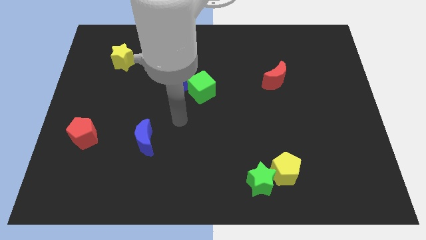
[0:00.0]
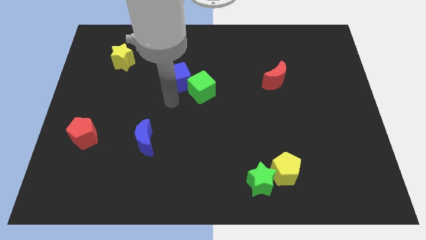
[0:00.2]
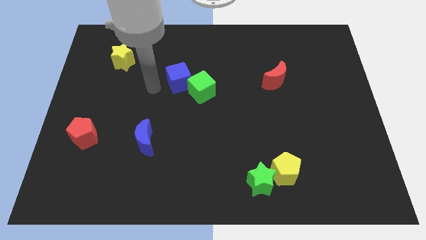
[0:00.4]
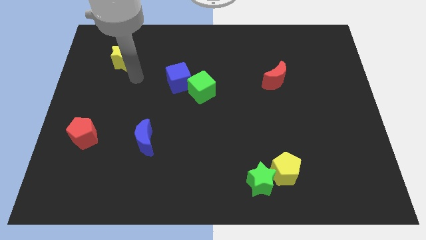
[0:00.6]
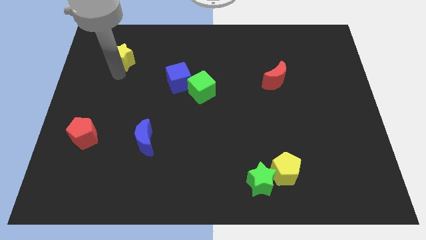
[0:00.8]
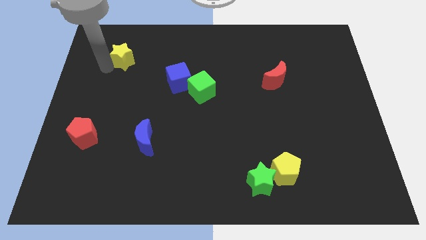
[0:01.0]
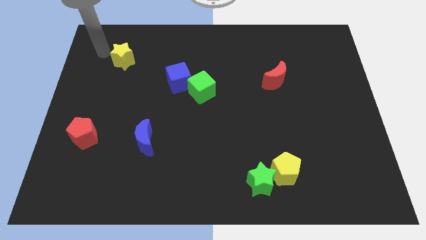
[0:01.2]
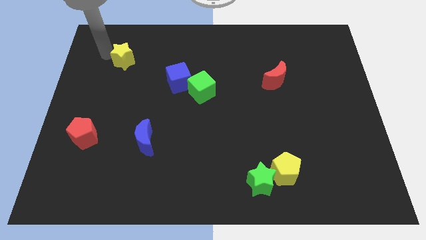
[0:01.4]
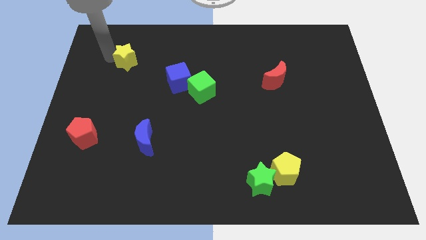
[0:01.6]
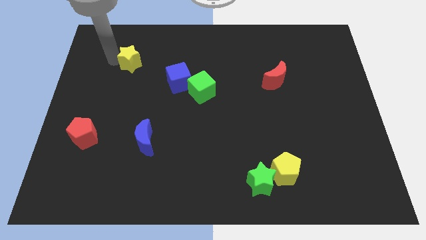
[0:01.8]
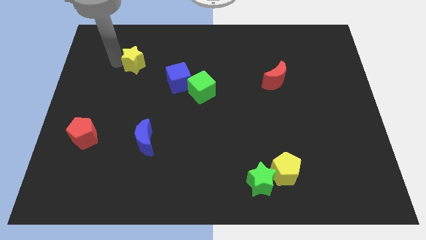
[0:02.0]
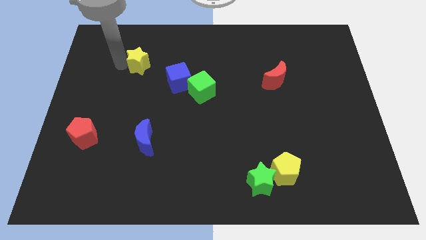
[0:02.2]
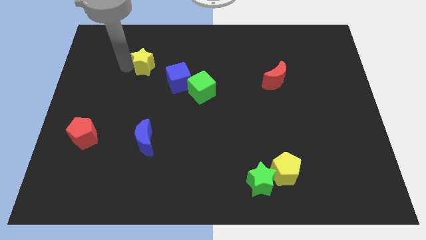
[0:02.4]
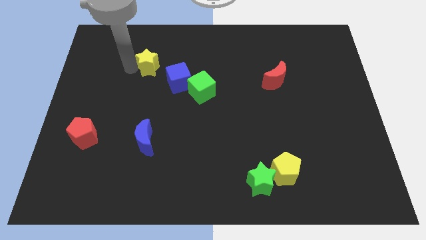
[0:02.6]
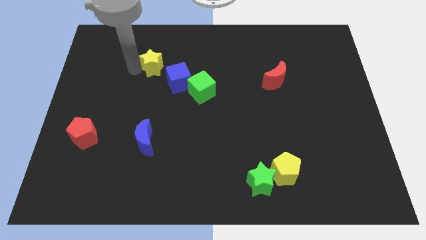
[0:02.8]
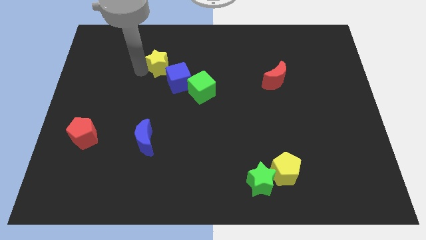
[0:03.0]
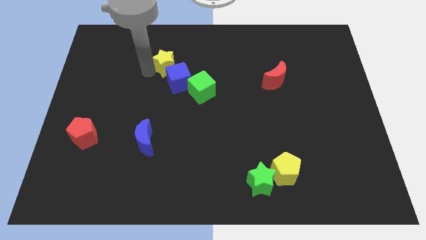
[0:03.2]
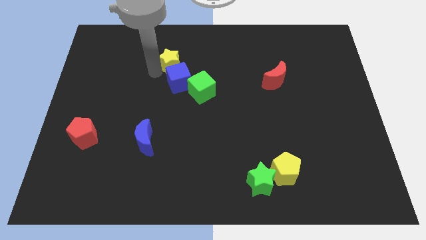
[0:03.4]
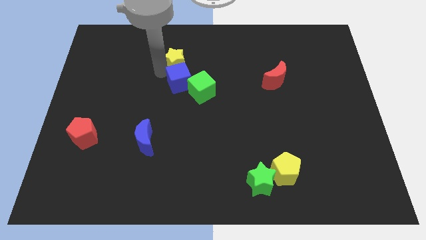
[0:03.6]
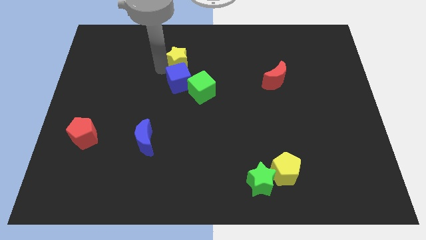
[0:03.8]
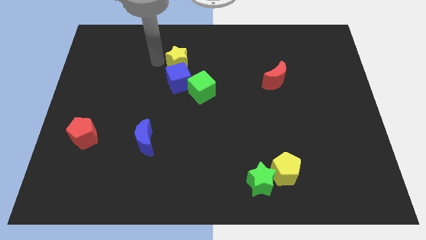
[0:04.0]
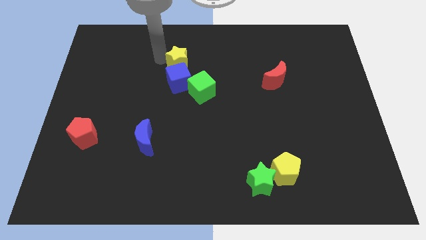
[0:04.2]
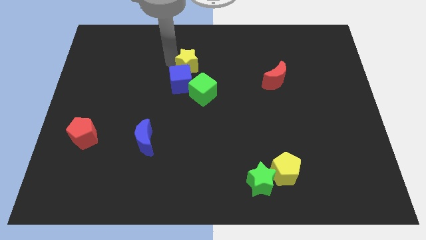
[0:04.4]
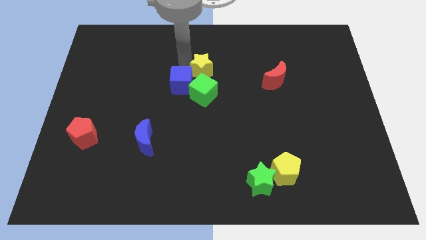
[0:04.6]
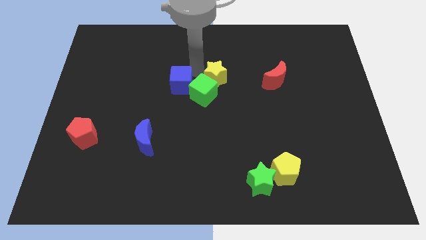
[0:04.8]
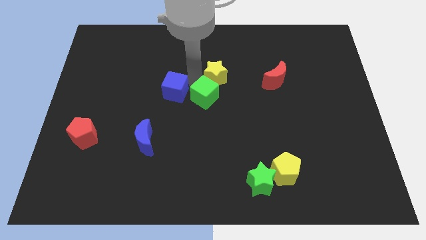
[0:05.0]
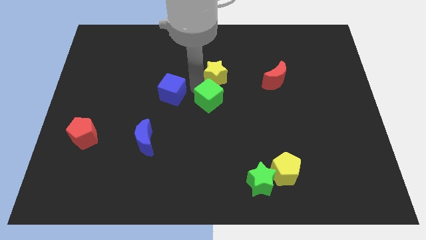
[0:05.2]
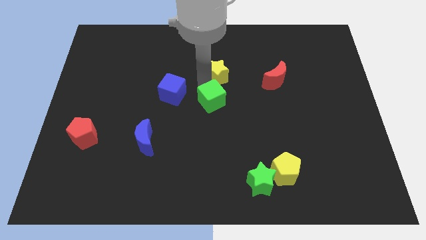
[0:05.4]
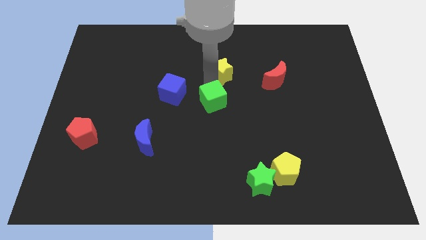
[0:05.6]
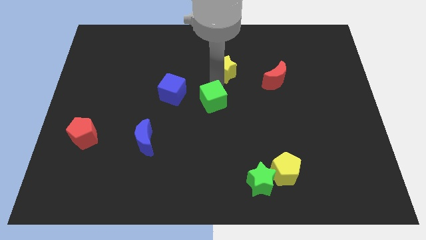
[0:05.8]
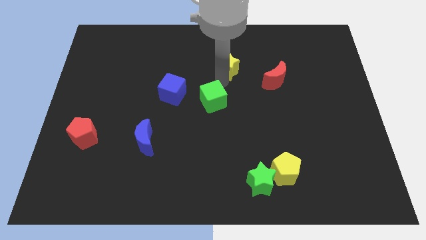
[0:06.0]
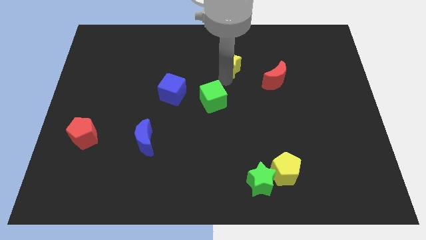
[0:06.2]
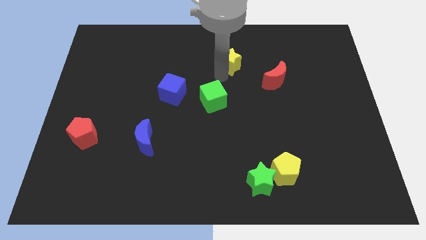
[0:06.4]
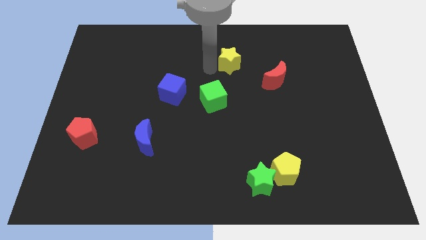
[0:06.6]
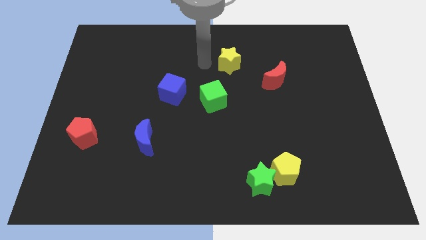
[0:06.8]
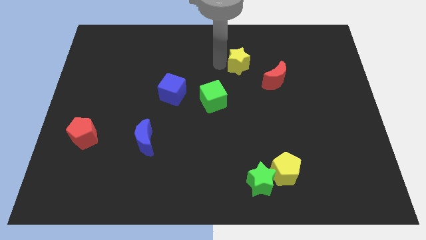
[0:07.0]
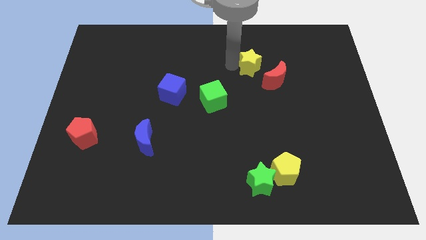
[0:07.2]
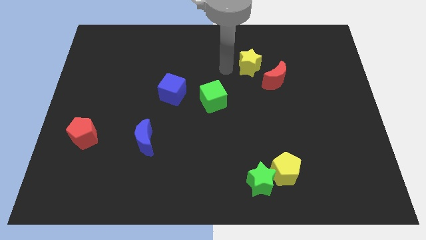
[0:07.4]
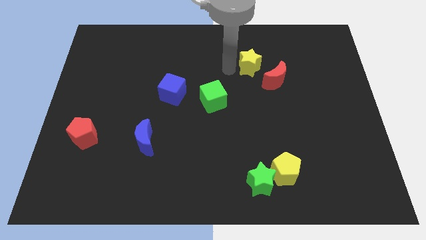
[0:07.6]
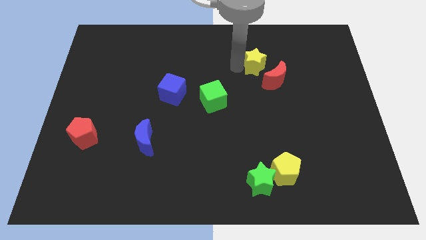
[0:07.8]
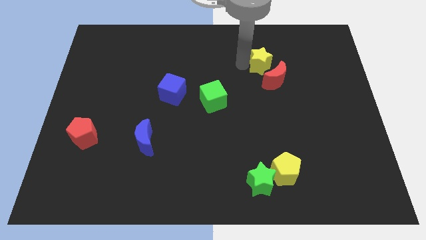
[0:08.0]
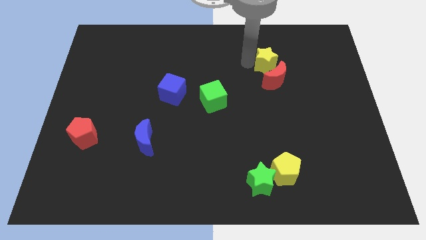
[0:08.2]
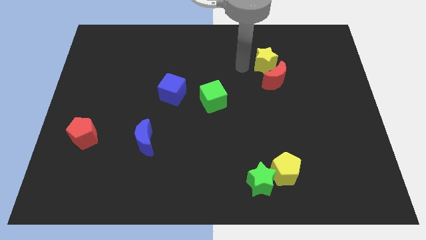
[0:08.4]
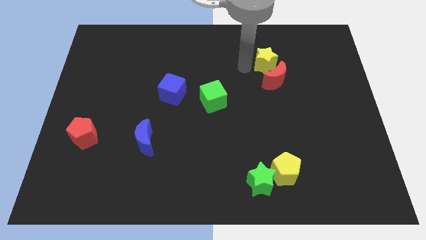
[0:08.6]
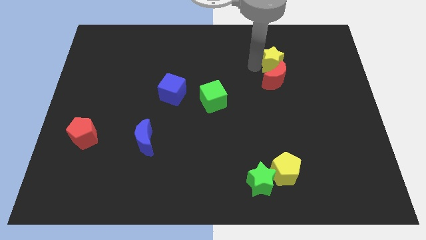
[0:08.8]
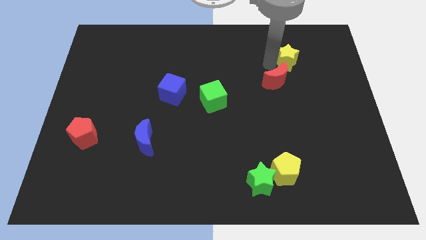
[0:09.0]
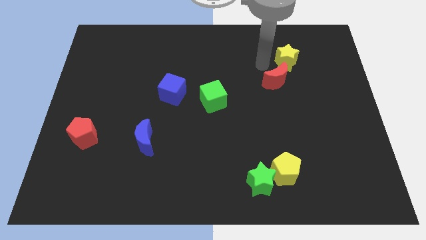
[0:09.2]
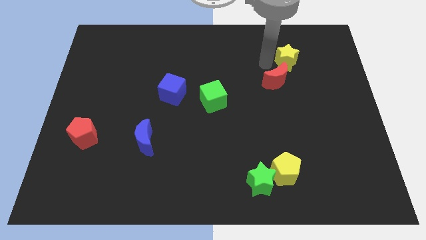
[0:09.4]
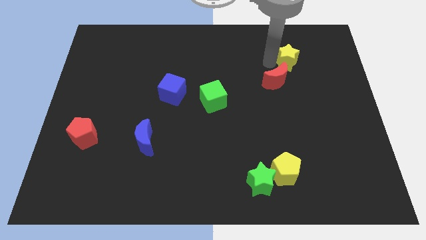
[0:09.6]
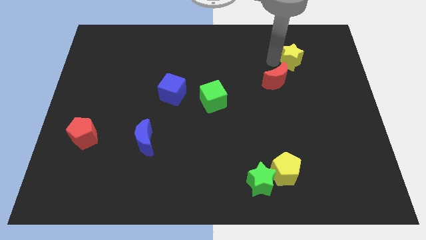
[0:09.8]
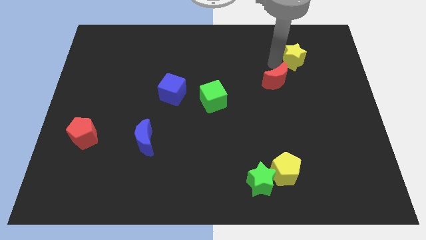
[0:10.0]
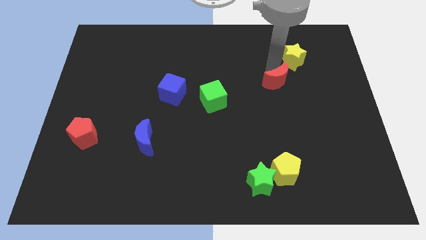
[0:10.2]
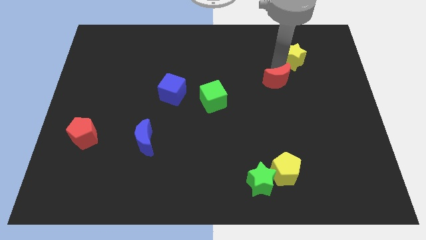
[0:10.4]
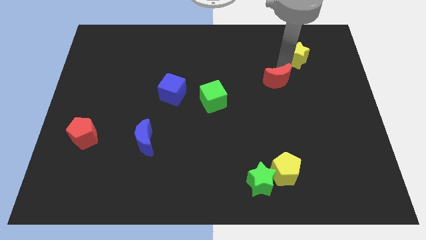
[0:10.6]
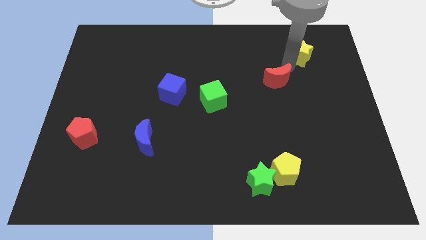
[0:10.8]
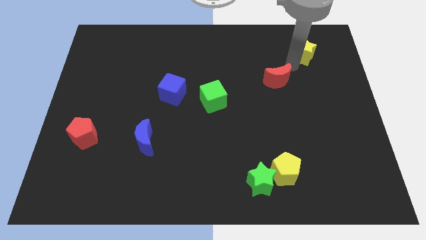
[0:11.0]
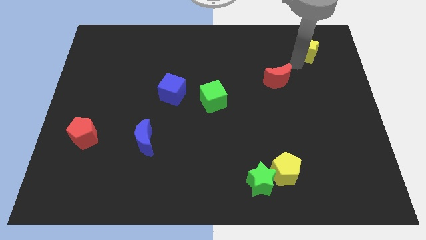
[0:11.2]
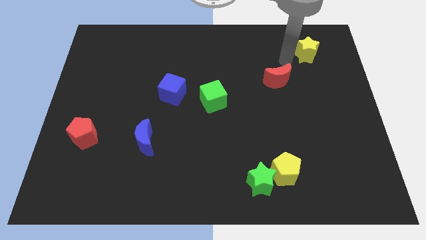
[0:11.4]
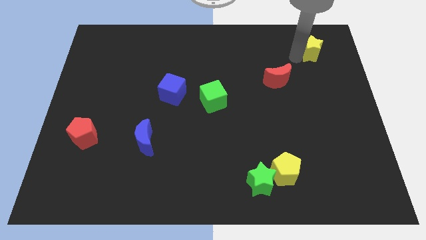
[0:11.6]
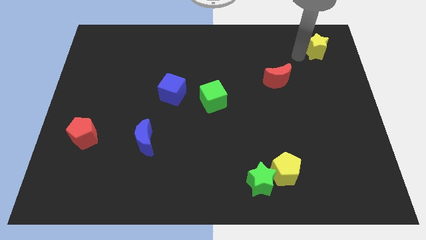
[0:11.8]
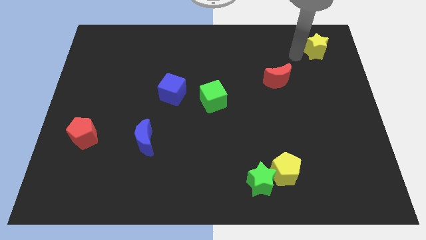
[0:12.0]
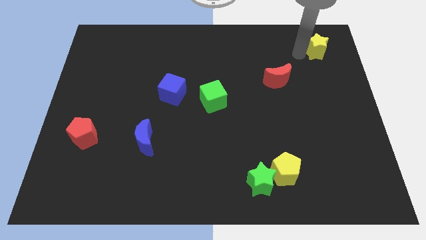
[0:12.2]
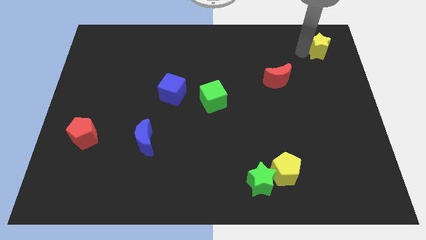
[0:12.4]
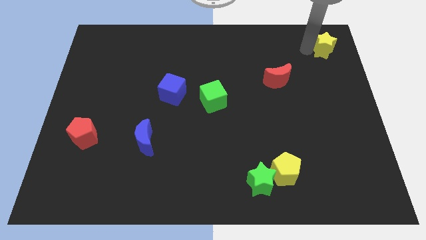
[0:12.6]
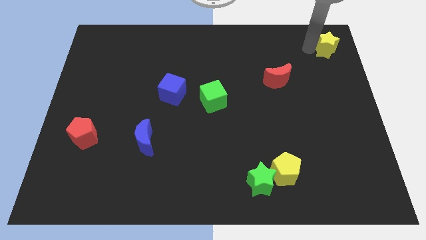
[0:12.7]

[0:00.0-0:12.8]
move the yellow star to the upper right corner
